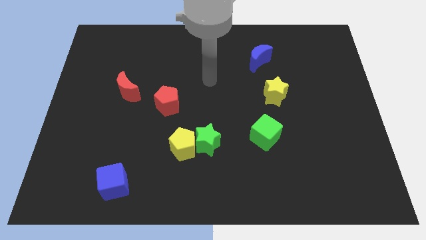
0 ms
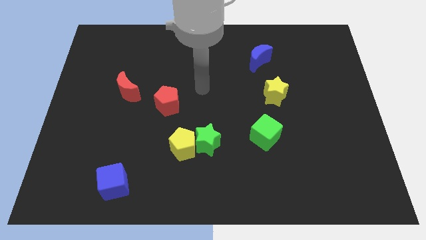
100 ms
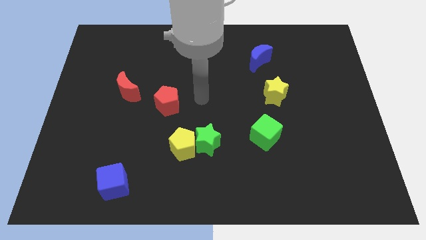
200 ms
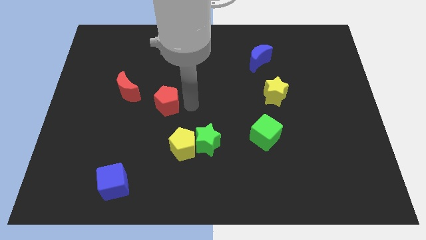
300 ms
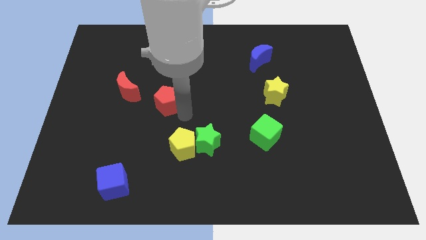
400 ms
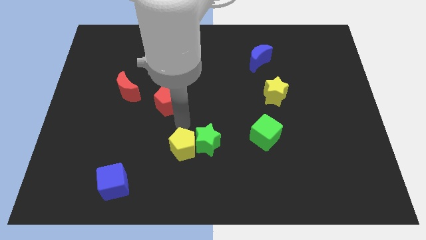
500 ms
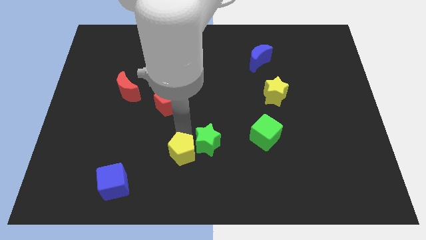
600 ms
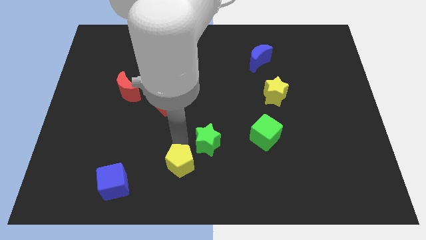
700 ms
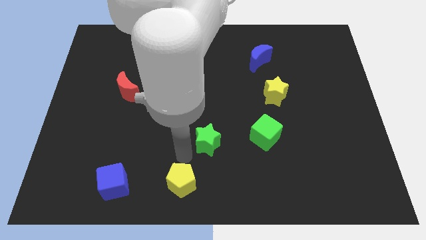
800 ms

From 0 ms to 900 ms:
pull the green star apart from the yellow pentagon

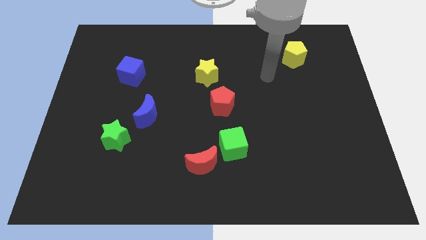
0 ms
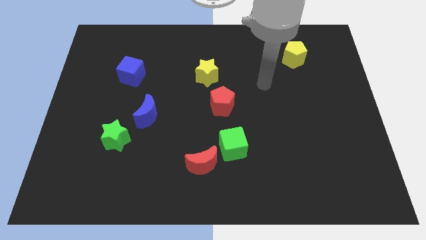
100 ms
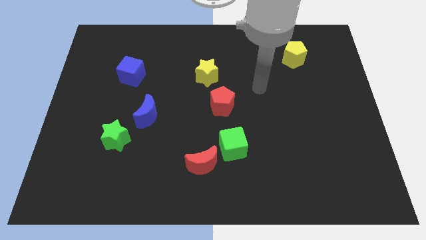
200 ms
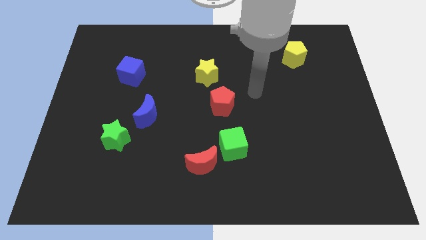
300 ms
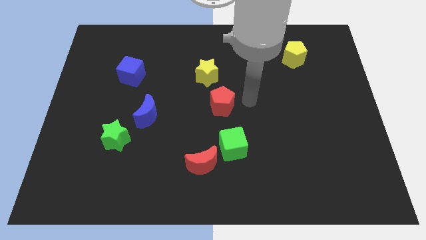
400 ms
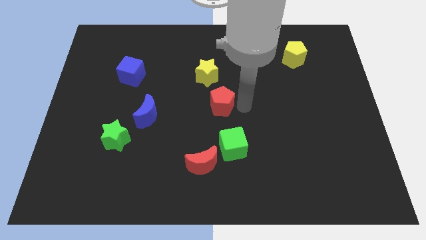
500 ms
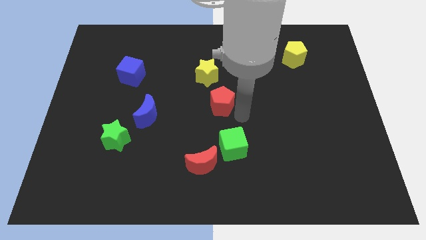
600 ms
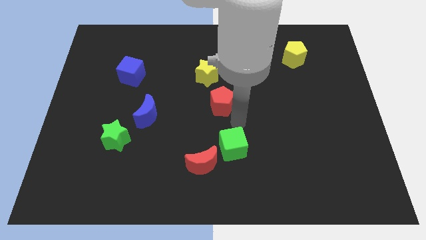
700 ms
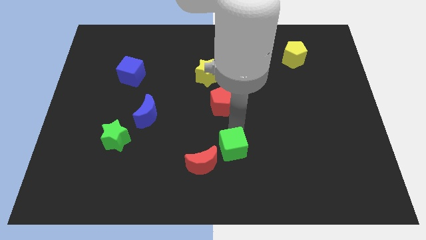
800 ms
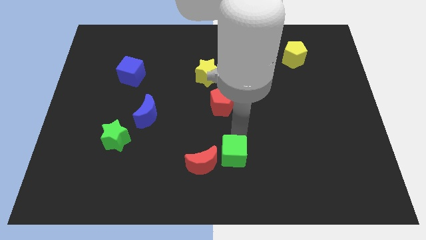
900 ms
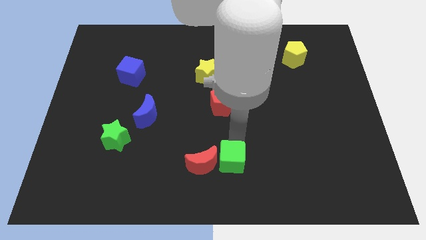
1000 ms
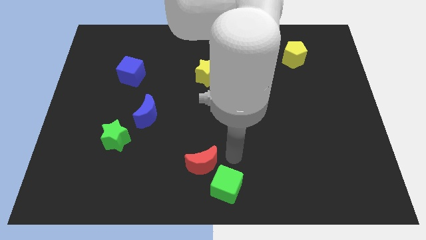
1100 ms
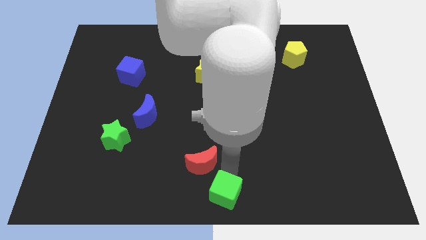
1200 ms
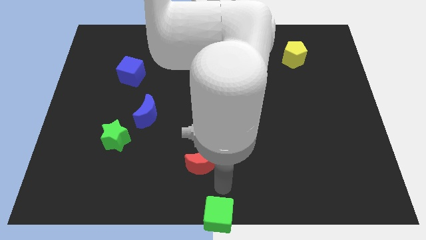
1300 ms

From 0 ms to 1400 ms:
move the red moon away from the green cube

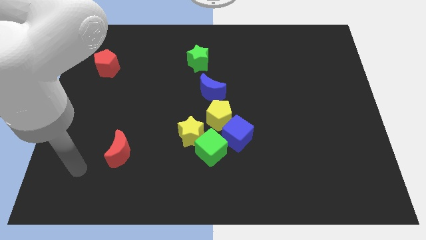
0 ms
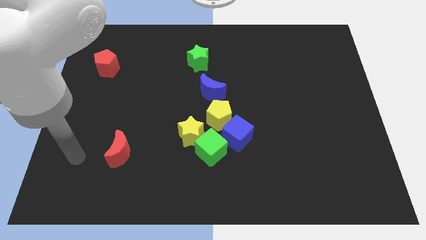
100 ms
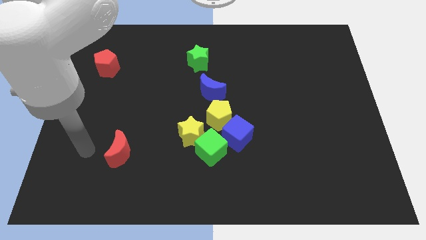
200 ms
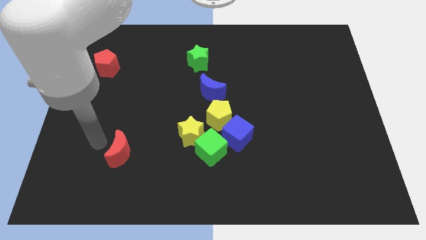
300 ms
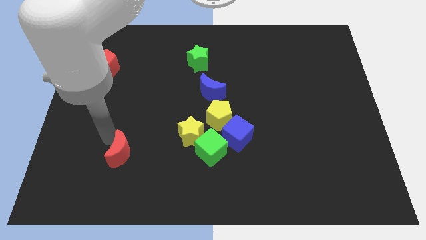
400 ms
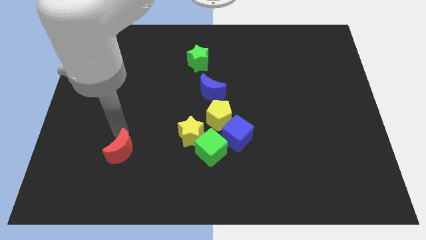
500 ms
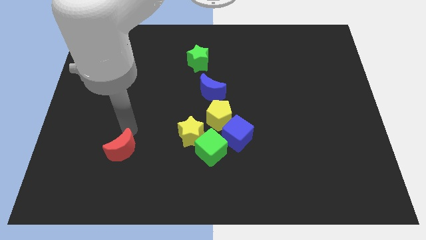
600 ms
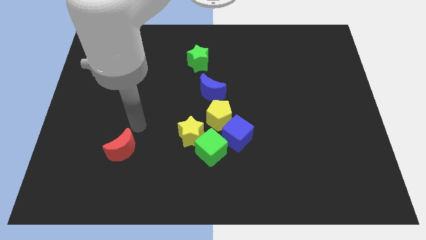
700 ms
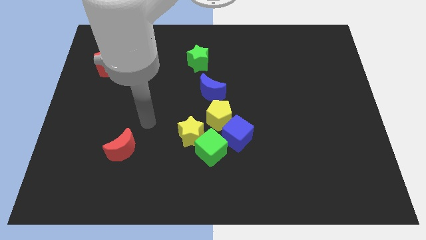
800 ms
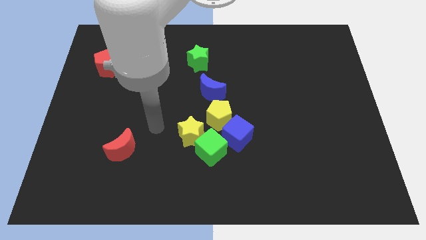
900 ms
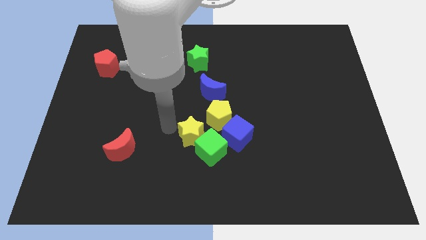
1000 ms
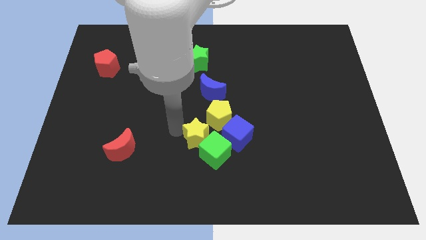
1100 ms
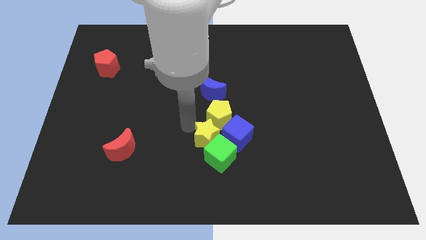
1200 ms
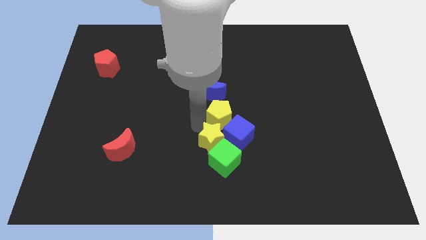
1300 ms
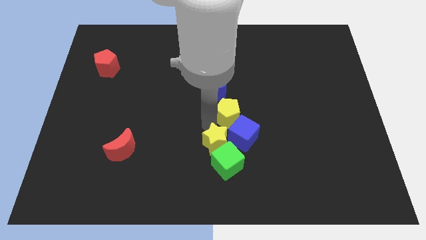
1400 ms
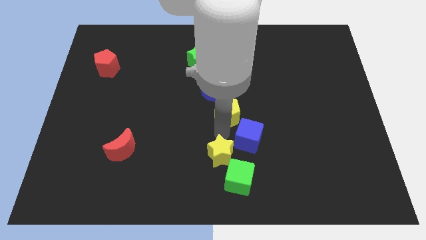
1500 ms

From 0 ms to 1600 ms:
separate the green cube from the group

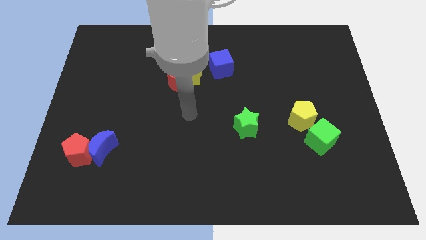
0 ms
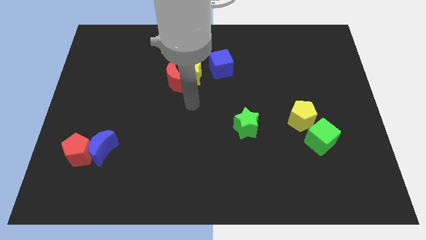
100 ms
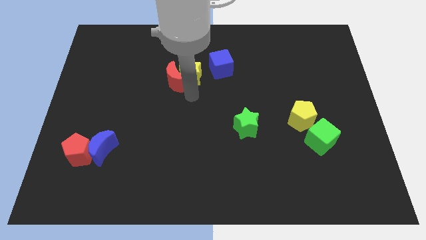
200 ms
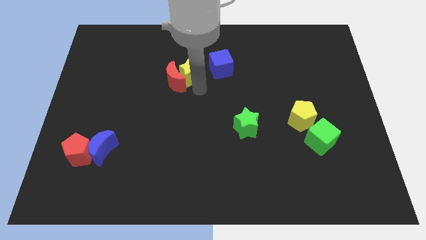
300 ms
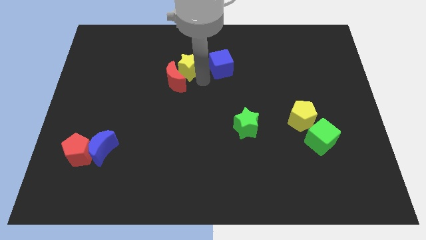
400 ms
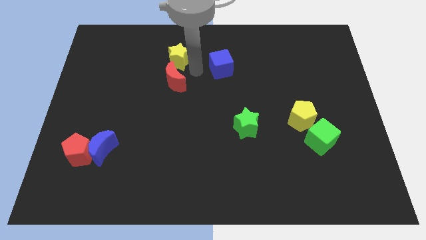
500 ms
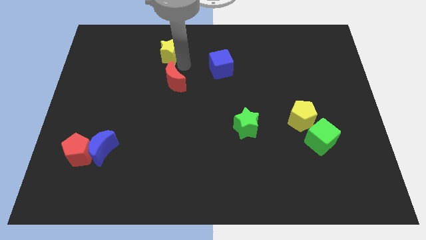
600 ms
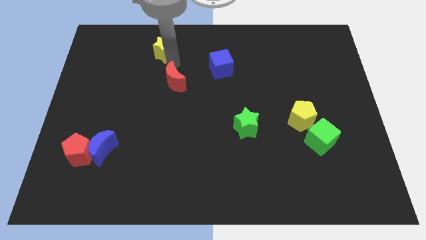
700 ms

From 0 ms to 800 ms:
pull the red moon apart from the yellow star

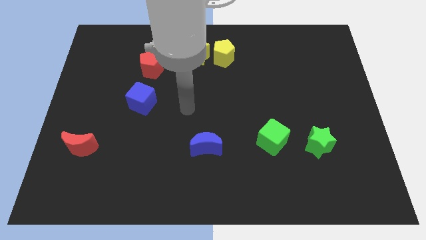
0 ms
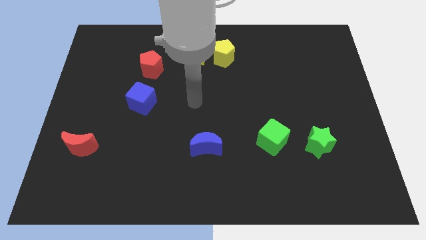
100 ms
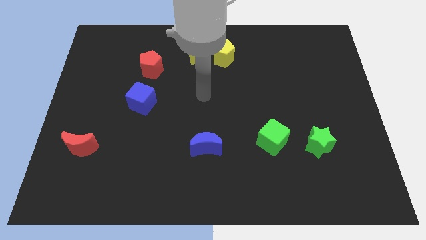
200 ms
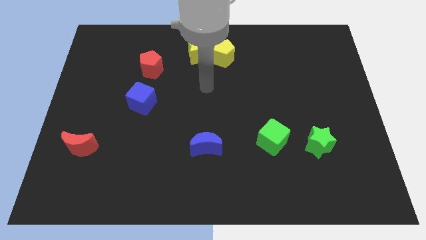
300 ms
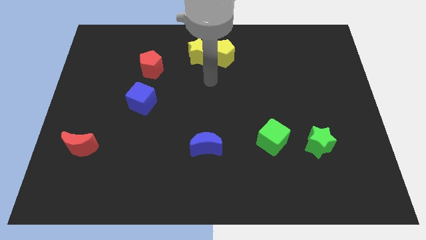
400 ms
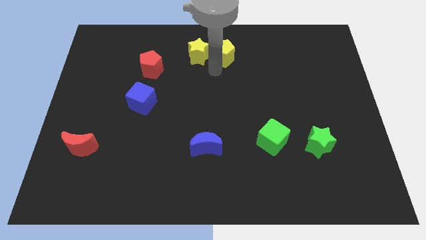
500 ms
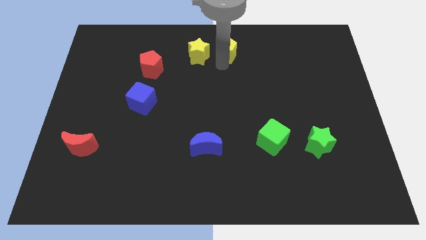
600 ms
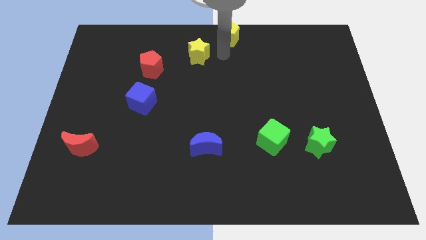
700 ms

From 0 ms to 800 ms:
pull the yellow star apart from the yellow pentagon

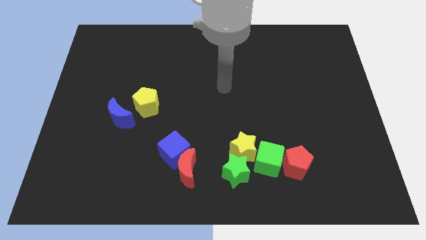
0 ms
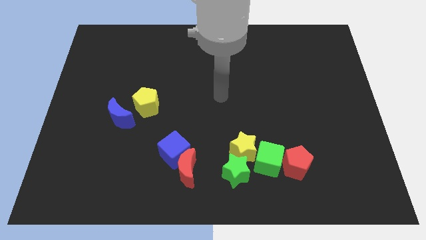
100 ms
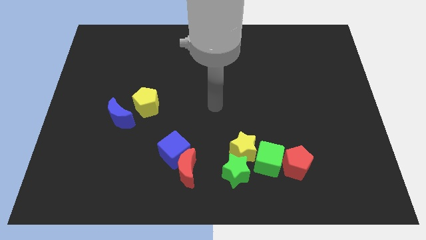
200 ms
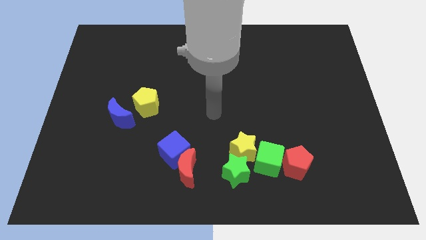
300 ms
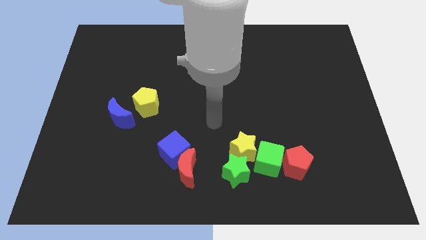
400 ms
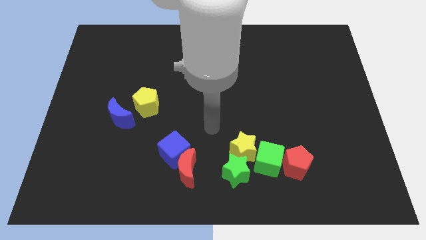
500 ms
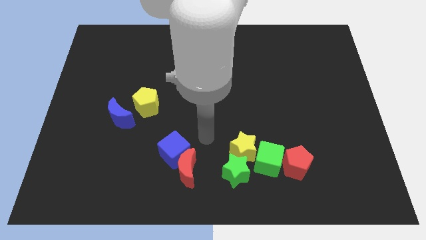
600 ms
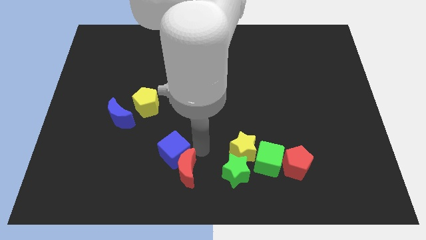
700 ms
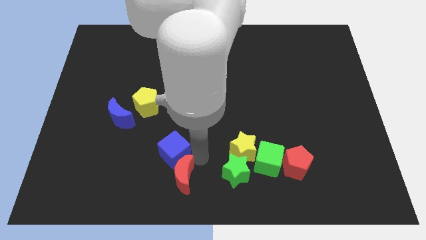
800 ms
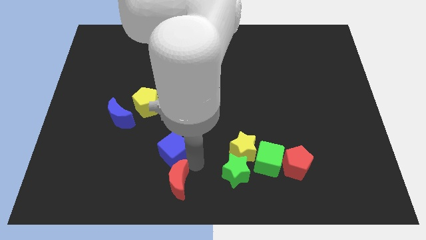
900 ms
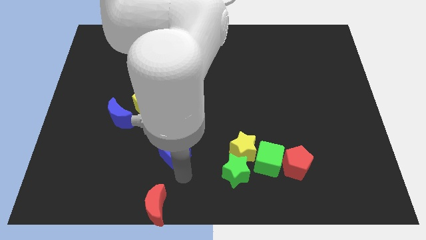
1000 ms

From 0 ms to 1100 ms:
pull the blue cube apart from the red moon

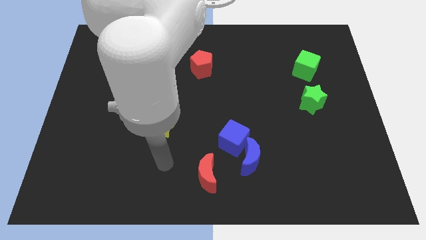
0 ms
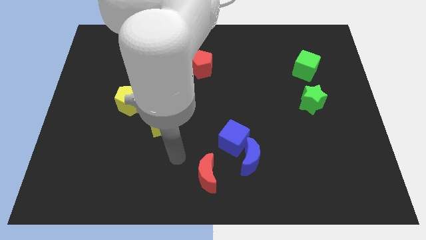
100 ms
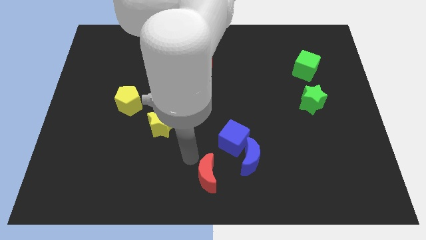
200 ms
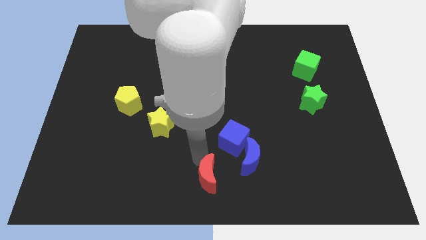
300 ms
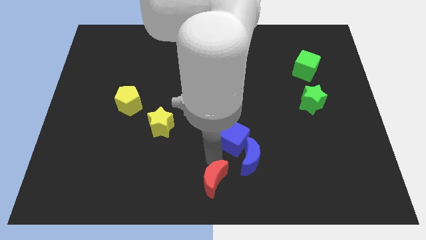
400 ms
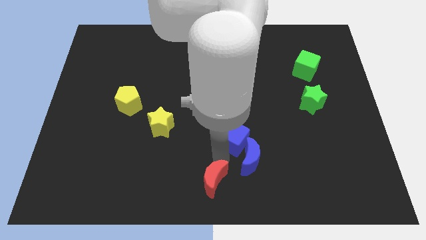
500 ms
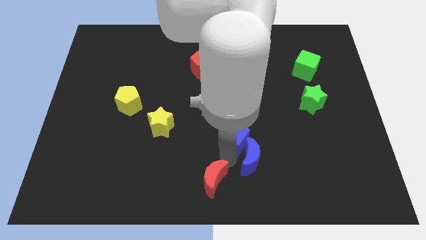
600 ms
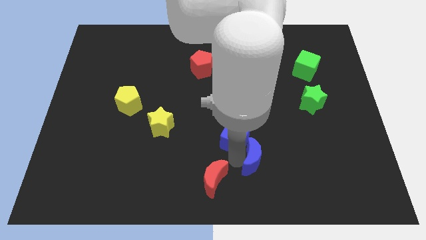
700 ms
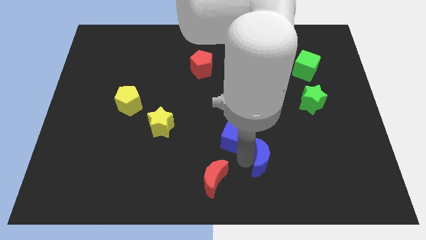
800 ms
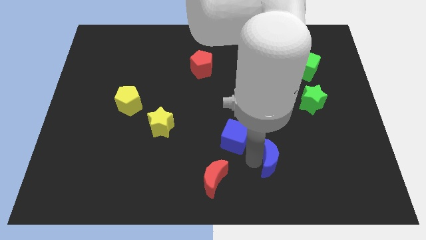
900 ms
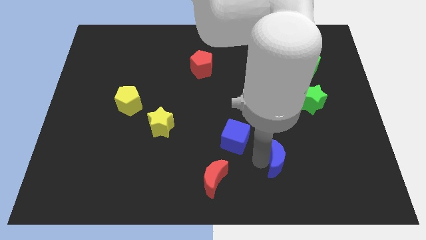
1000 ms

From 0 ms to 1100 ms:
move the blue moon away from the blue cube and red moon

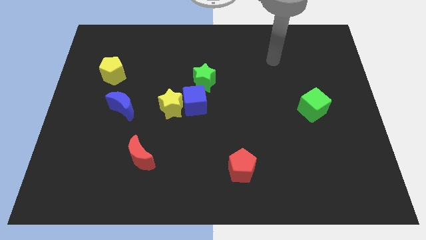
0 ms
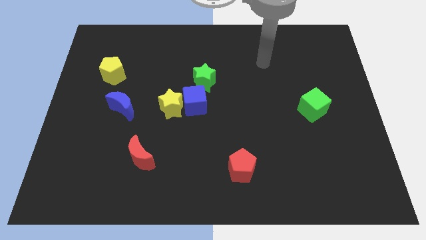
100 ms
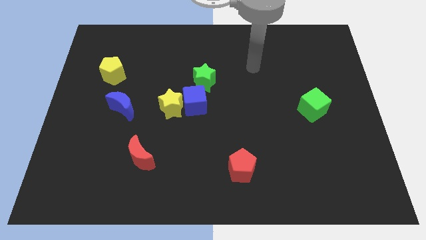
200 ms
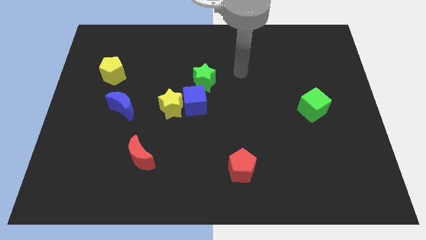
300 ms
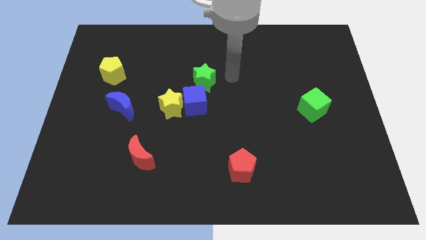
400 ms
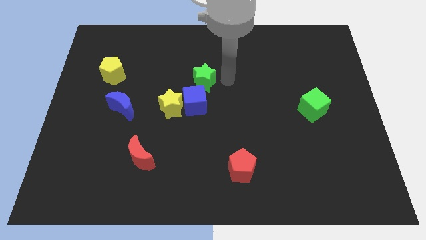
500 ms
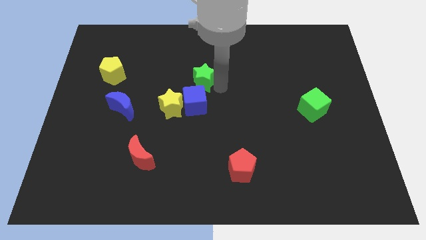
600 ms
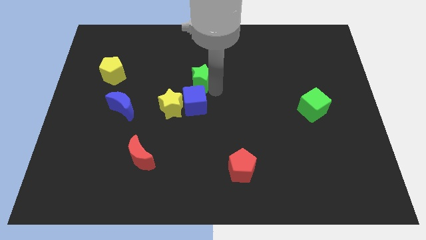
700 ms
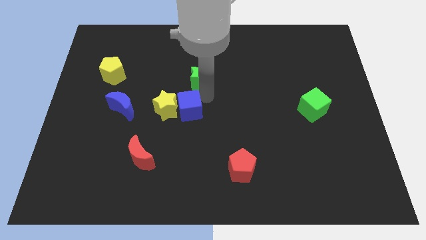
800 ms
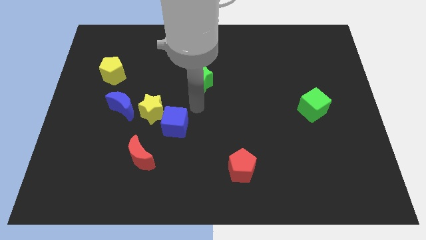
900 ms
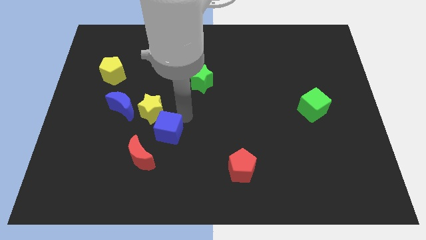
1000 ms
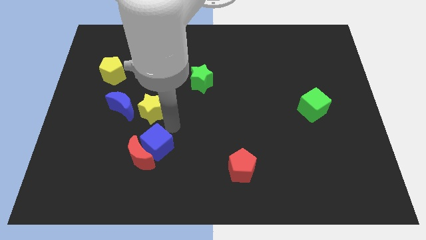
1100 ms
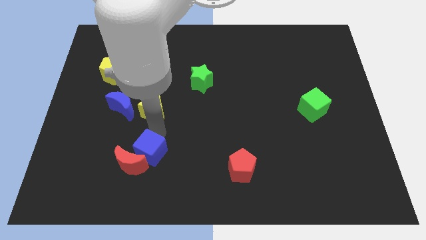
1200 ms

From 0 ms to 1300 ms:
separate the yellow star from the blue cube

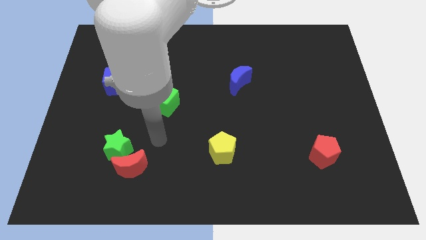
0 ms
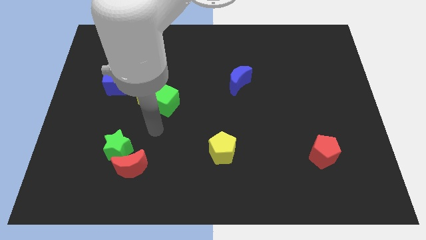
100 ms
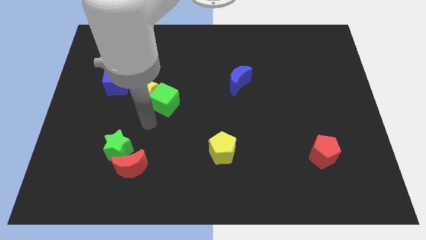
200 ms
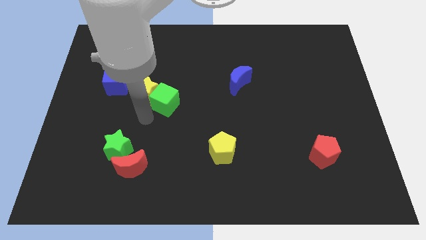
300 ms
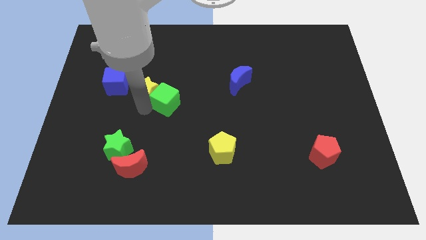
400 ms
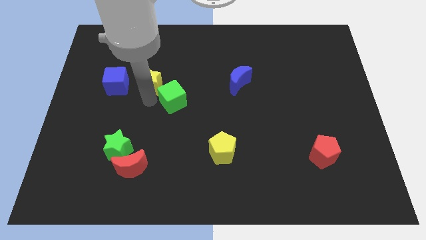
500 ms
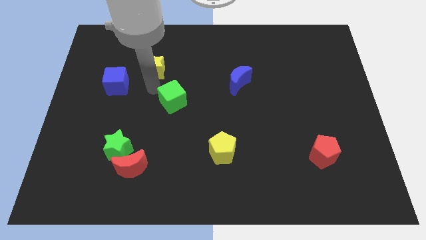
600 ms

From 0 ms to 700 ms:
move the green cube away from the yellow star
